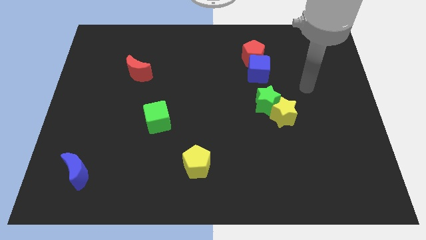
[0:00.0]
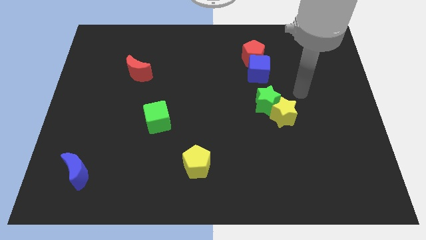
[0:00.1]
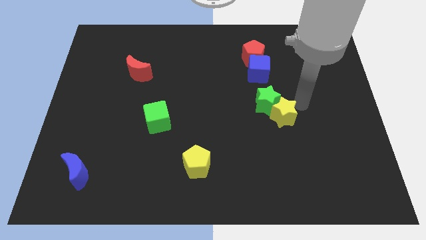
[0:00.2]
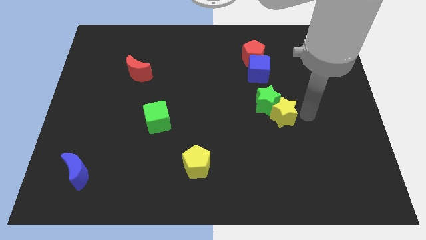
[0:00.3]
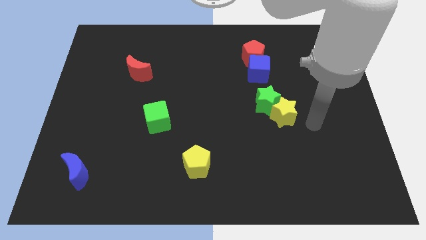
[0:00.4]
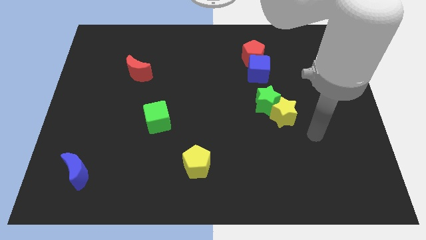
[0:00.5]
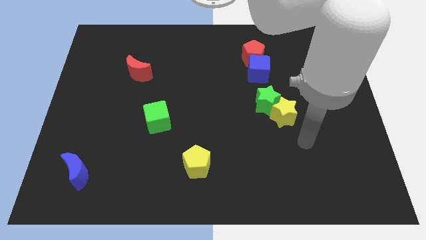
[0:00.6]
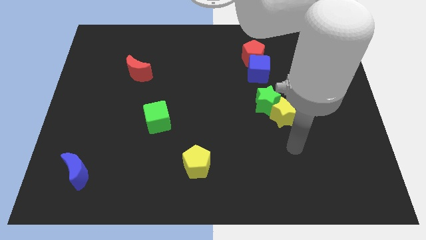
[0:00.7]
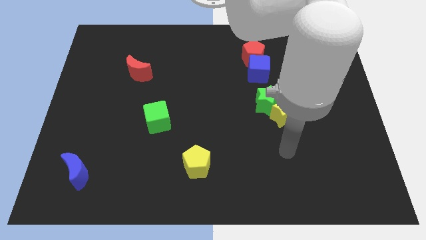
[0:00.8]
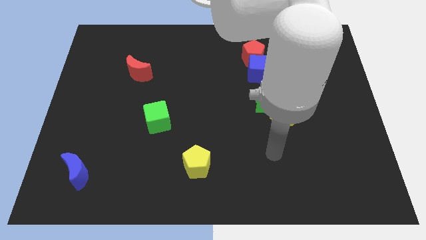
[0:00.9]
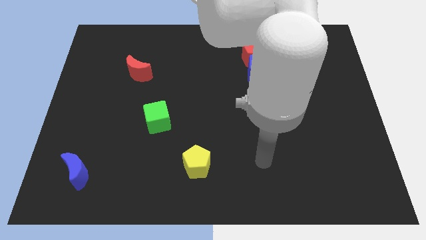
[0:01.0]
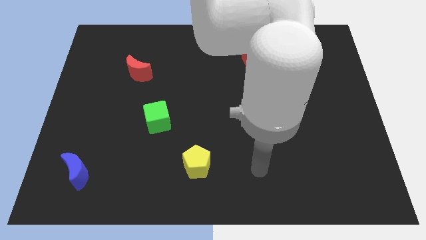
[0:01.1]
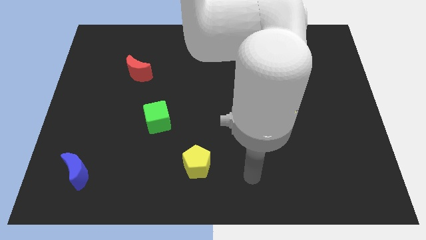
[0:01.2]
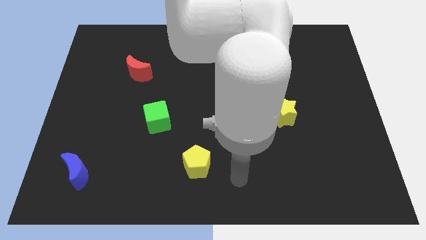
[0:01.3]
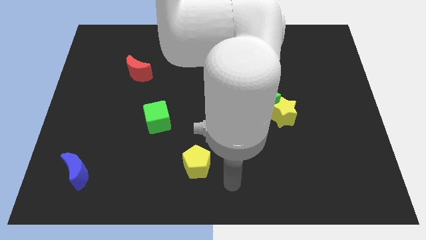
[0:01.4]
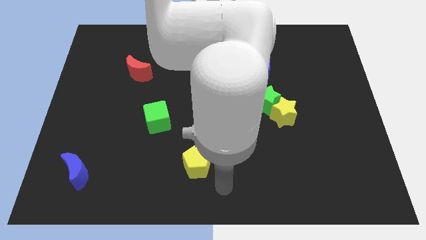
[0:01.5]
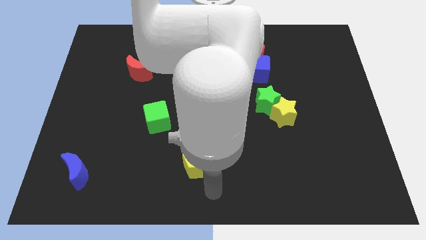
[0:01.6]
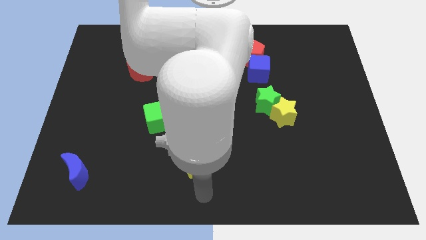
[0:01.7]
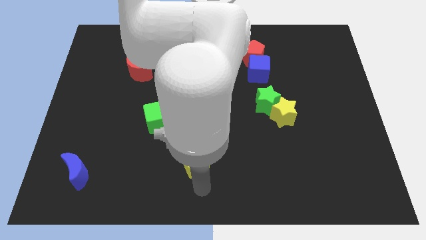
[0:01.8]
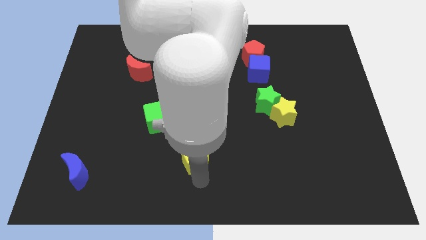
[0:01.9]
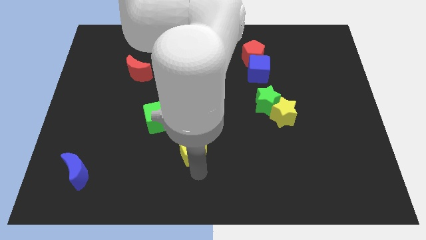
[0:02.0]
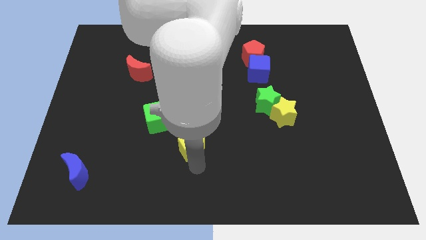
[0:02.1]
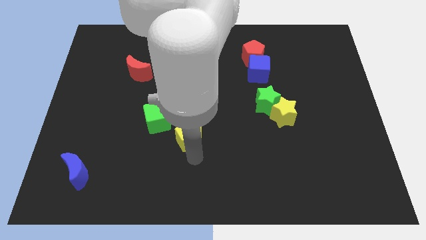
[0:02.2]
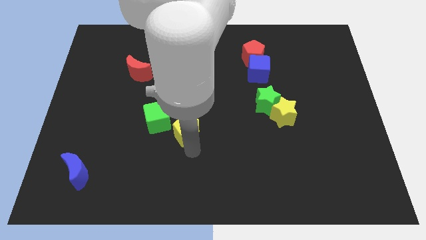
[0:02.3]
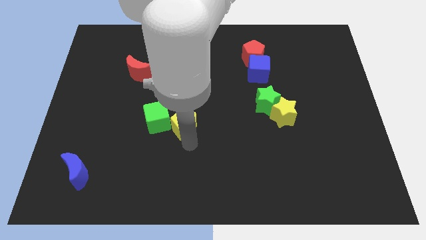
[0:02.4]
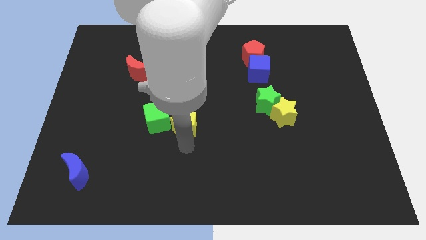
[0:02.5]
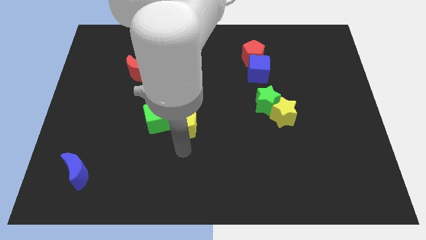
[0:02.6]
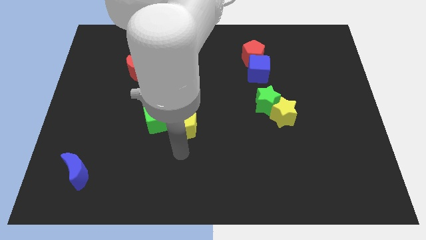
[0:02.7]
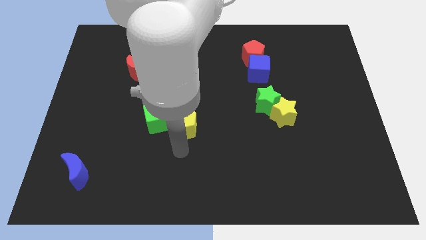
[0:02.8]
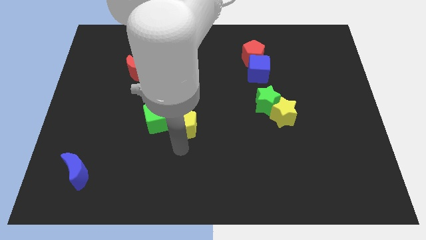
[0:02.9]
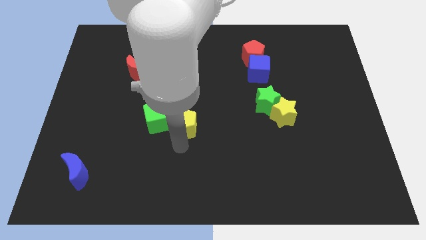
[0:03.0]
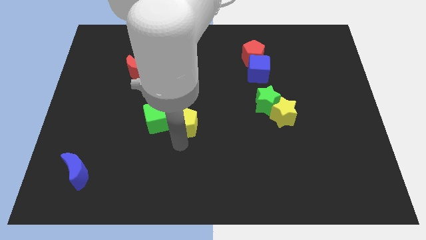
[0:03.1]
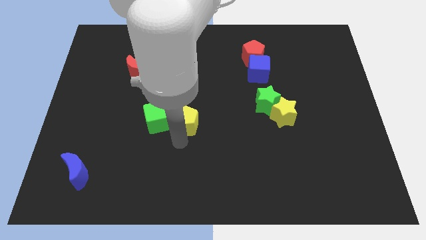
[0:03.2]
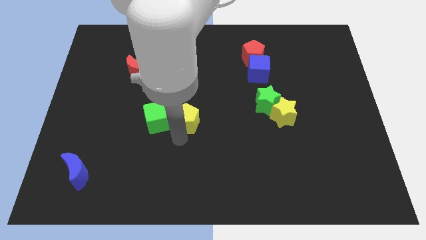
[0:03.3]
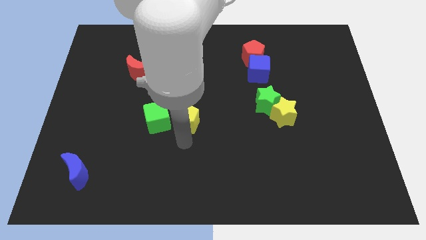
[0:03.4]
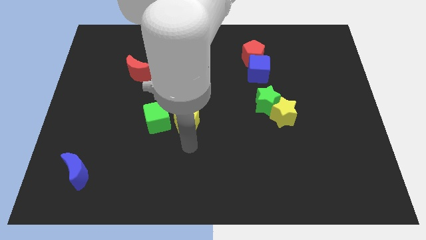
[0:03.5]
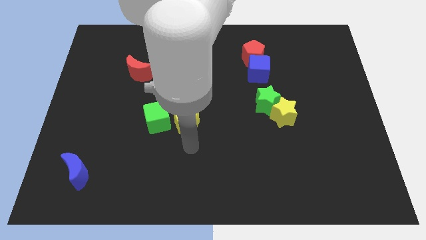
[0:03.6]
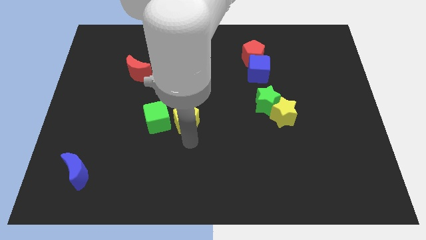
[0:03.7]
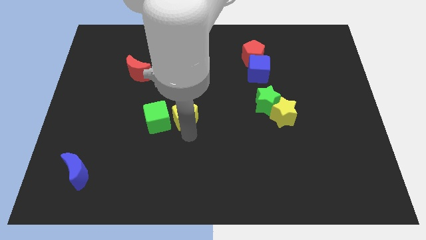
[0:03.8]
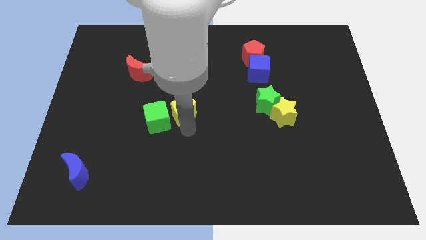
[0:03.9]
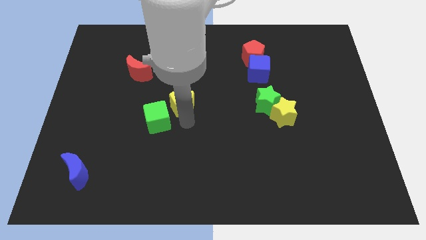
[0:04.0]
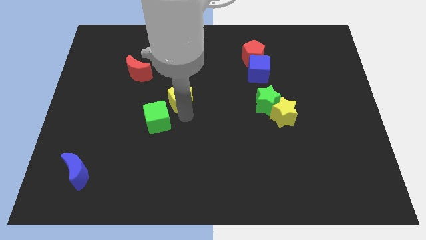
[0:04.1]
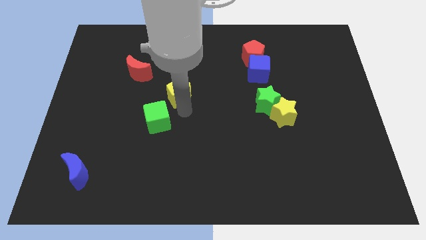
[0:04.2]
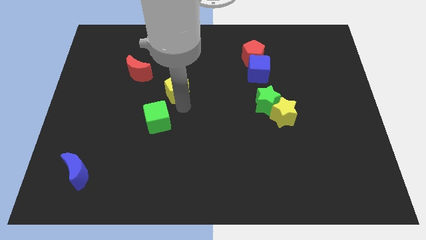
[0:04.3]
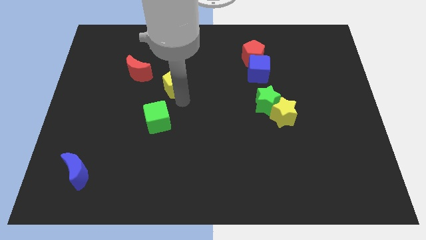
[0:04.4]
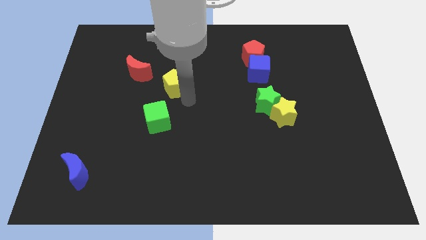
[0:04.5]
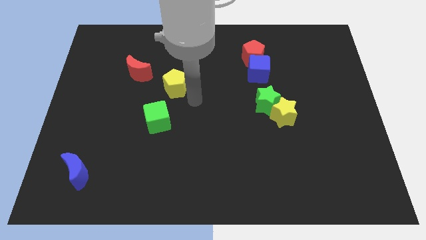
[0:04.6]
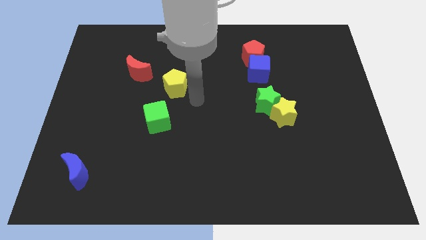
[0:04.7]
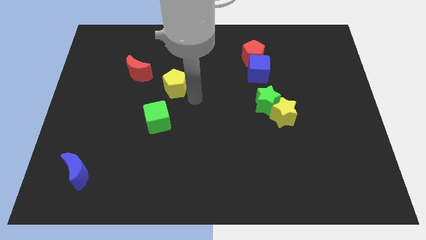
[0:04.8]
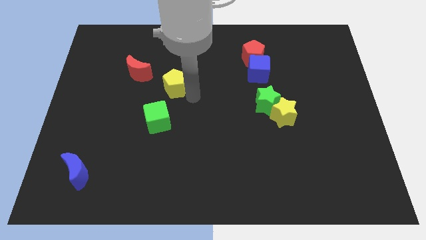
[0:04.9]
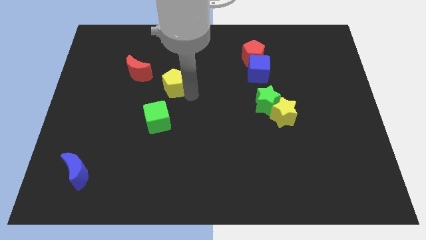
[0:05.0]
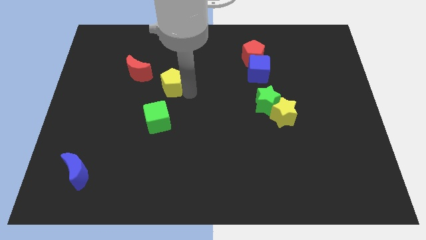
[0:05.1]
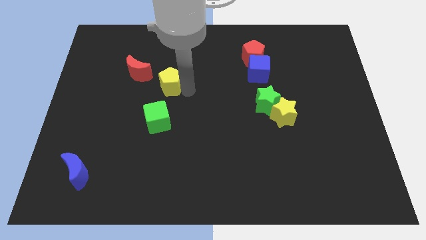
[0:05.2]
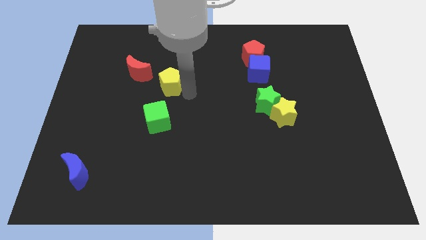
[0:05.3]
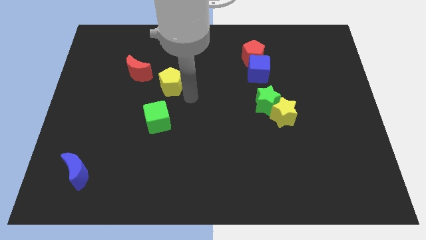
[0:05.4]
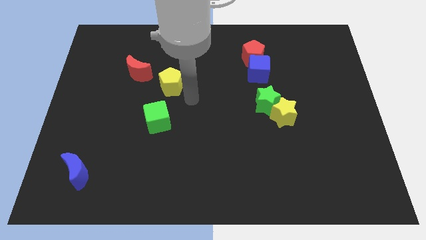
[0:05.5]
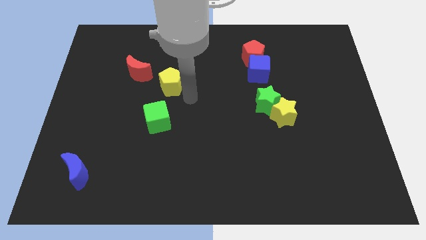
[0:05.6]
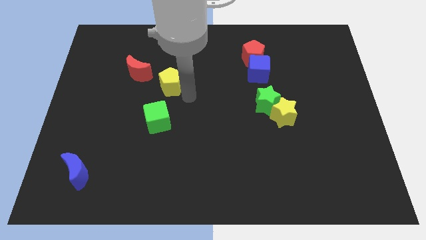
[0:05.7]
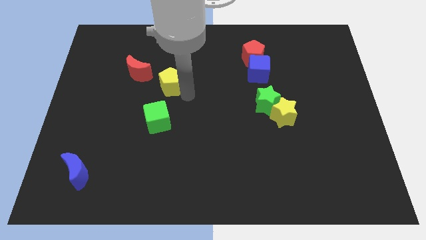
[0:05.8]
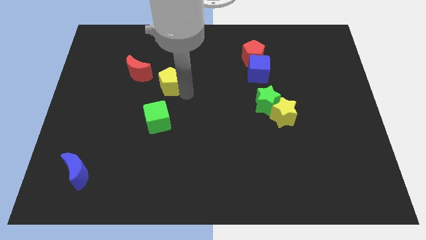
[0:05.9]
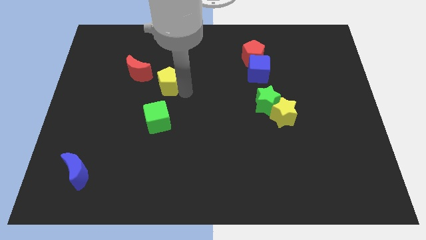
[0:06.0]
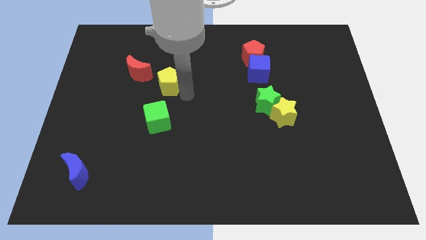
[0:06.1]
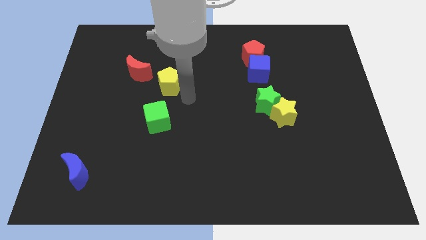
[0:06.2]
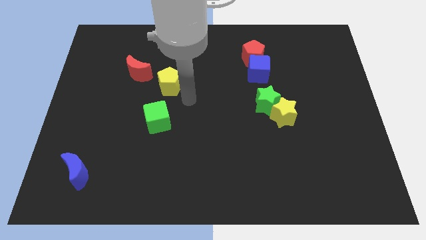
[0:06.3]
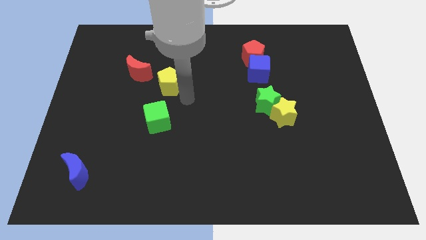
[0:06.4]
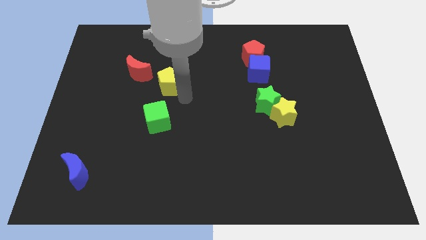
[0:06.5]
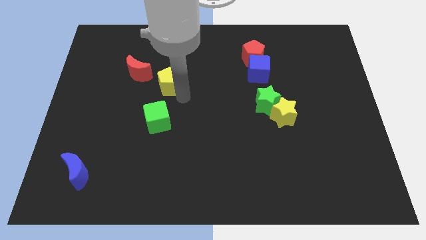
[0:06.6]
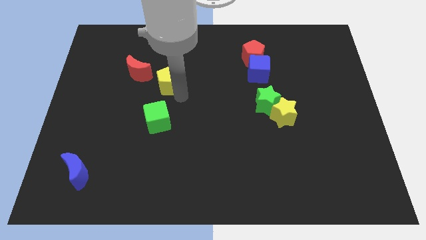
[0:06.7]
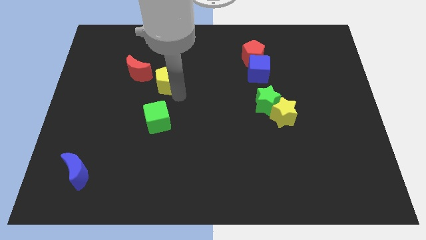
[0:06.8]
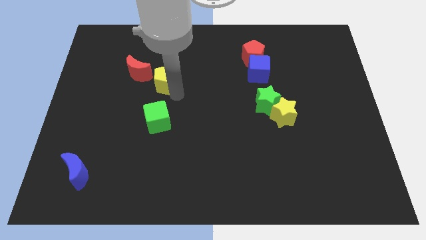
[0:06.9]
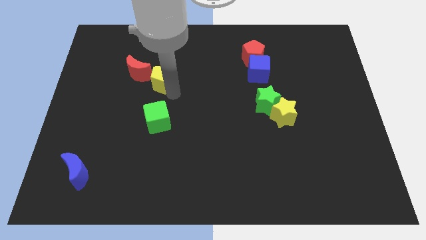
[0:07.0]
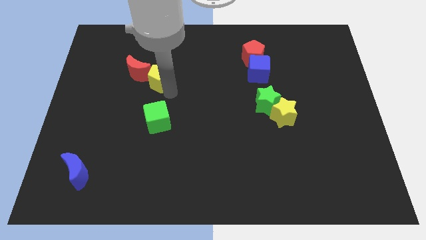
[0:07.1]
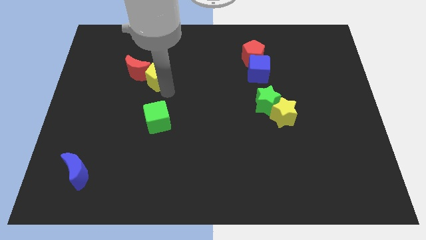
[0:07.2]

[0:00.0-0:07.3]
put the yellow pentagon to the red moon
